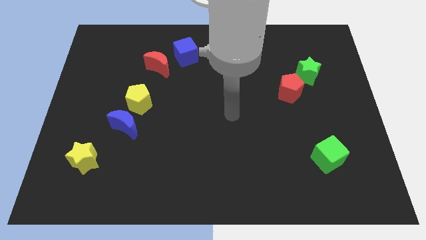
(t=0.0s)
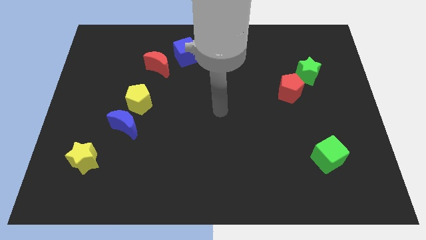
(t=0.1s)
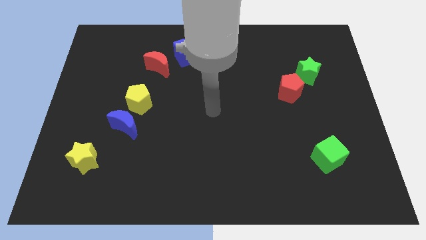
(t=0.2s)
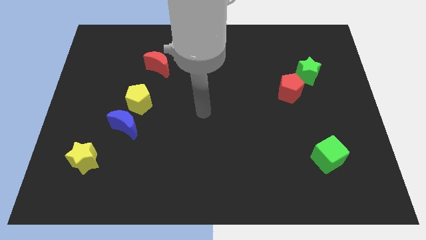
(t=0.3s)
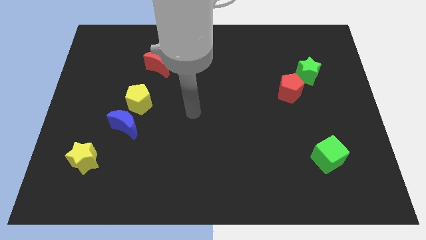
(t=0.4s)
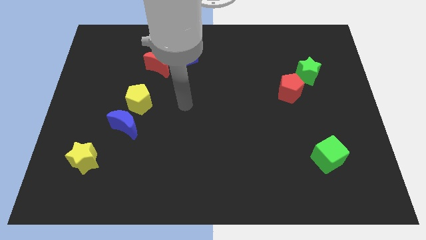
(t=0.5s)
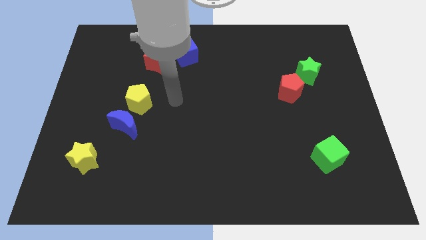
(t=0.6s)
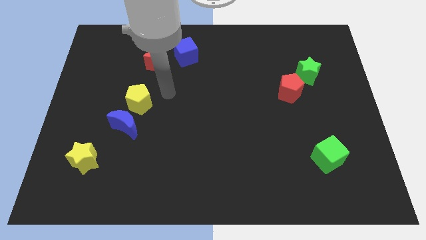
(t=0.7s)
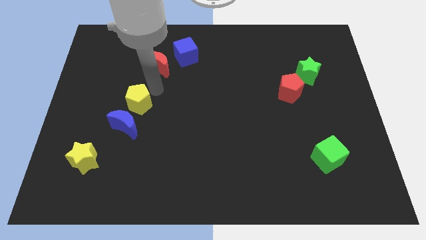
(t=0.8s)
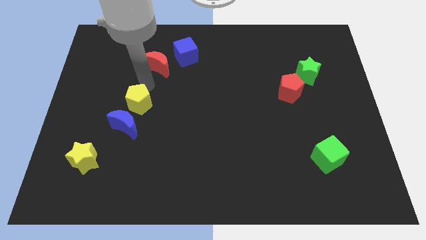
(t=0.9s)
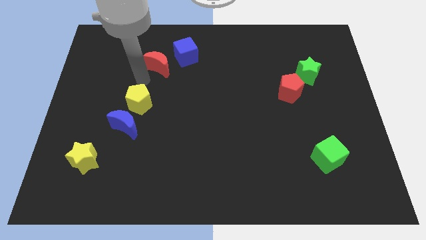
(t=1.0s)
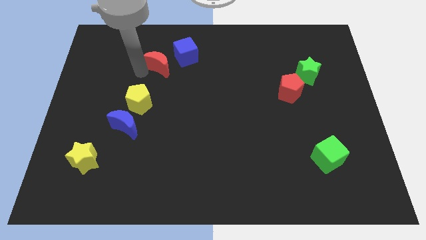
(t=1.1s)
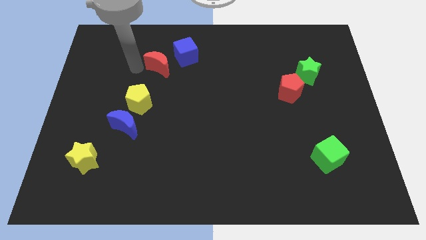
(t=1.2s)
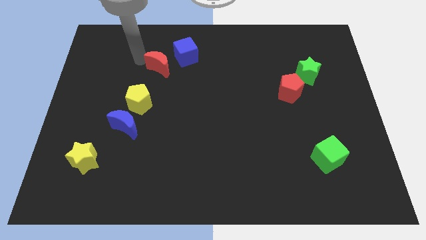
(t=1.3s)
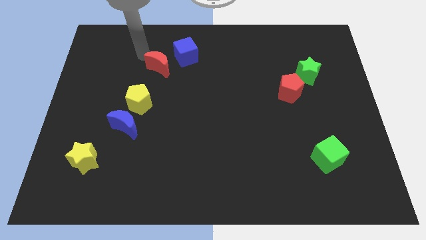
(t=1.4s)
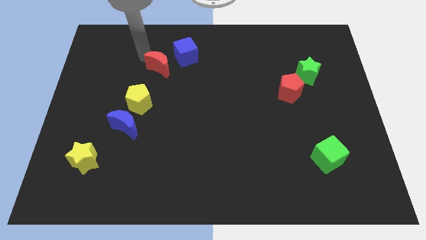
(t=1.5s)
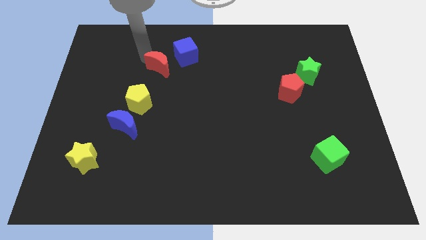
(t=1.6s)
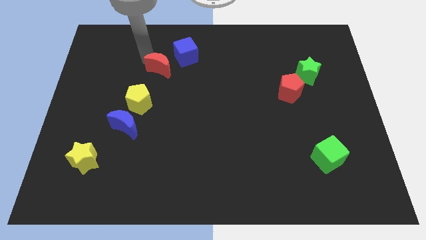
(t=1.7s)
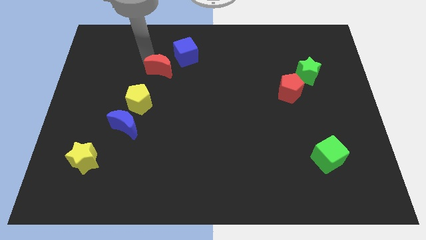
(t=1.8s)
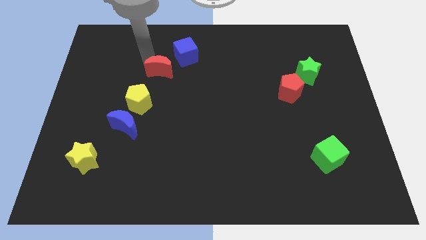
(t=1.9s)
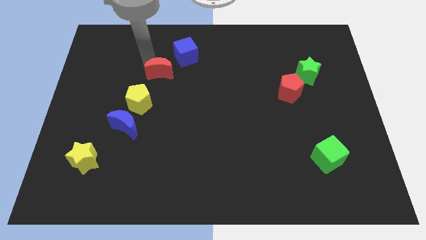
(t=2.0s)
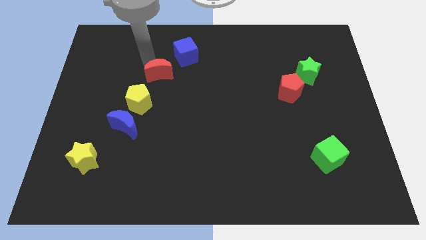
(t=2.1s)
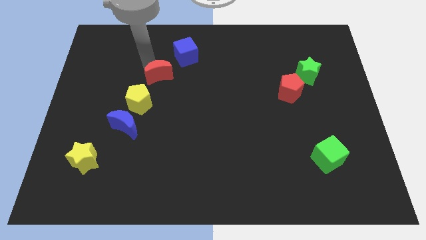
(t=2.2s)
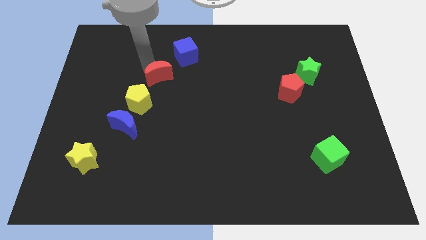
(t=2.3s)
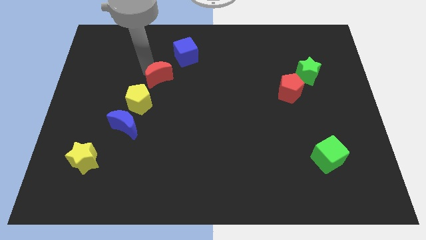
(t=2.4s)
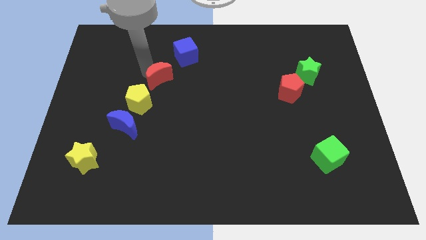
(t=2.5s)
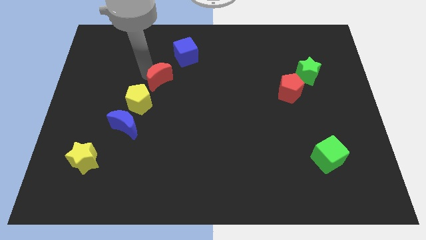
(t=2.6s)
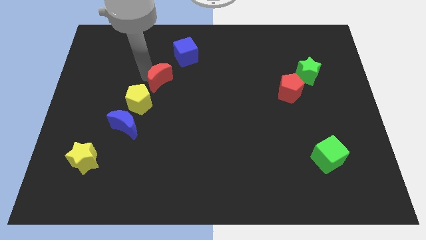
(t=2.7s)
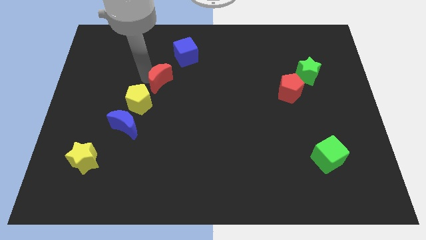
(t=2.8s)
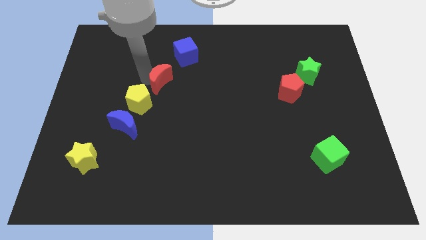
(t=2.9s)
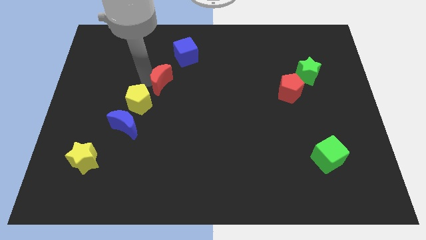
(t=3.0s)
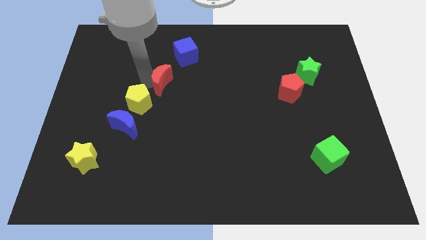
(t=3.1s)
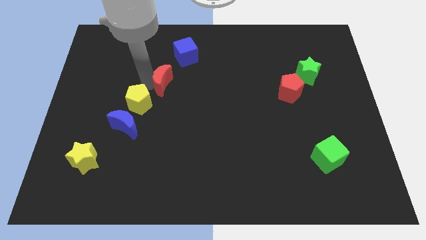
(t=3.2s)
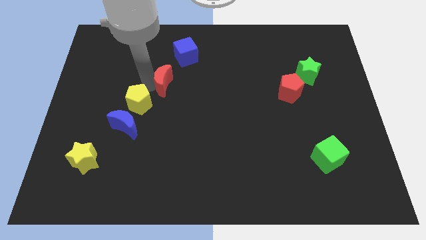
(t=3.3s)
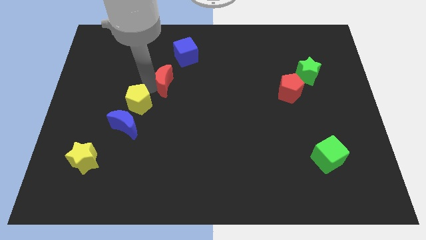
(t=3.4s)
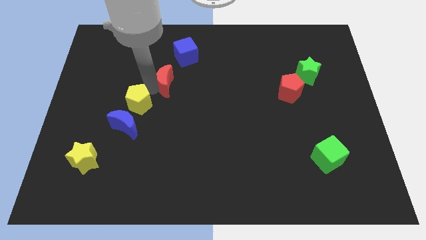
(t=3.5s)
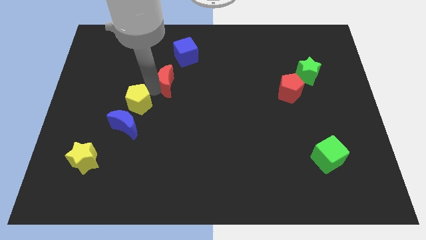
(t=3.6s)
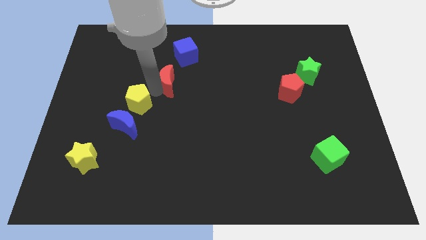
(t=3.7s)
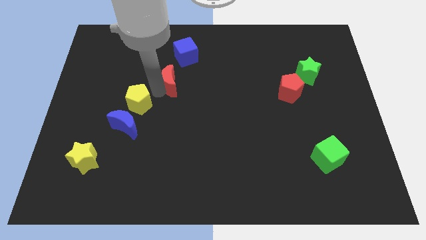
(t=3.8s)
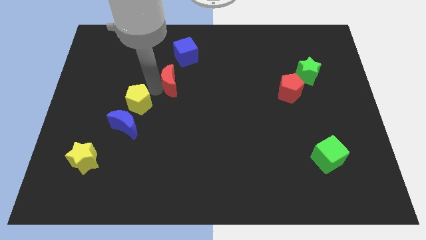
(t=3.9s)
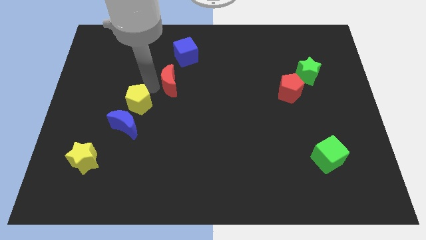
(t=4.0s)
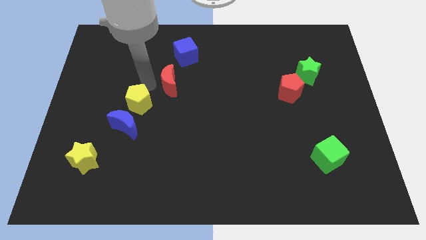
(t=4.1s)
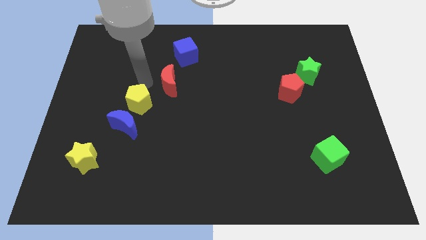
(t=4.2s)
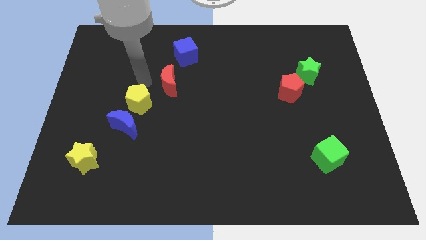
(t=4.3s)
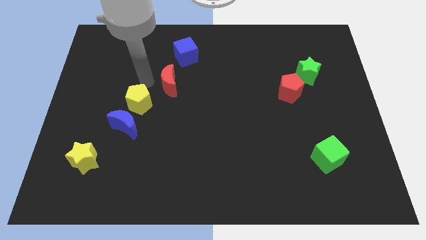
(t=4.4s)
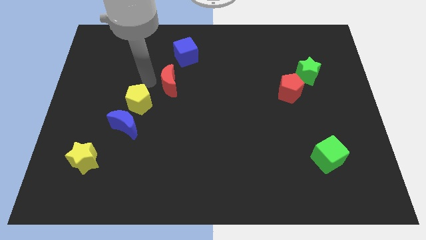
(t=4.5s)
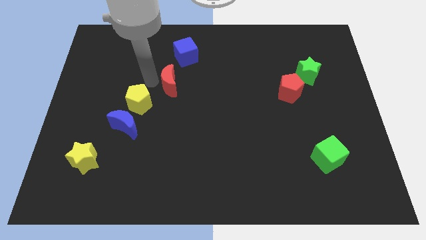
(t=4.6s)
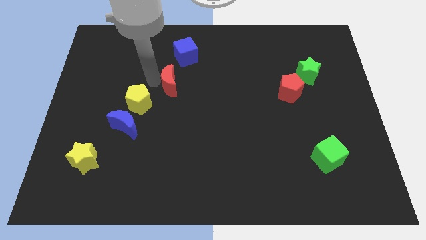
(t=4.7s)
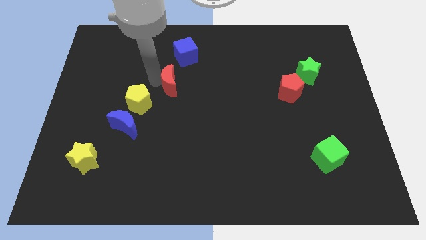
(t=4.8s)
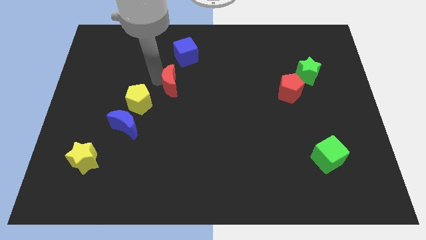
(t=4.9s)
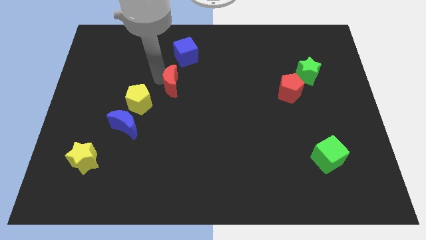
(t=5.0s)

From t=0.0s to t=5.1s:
slightly move the red moon downwards and then right

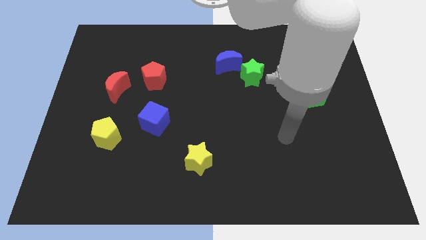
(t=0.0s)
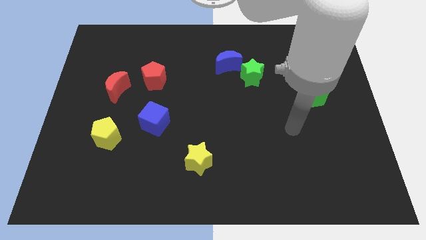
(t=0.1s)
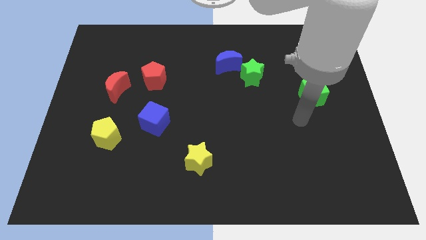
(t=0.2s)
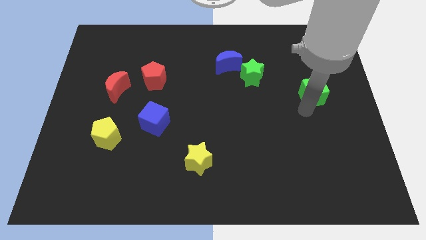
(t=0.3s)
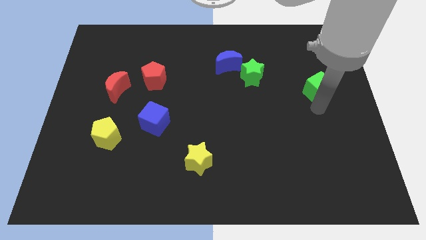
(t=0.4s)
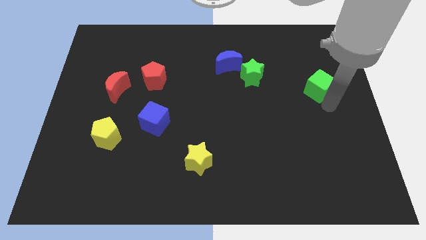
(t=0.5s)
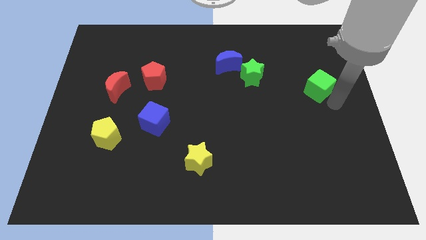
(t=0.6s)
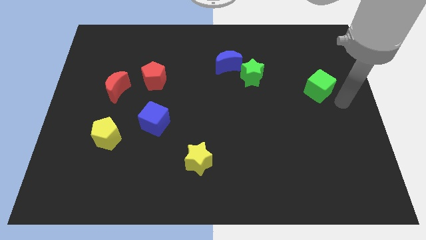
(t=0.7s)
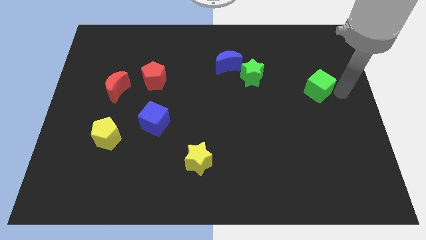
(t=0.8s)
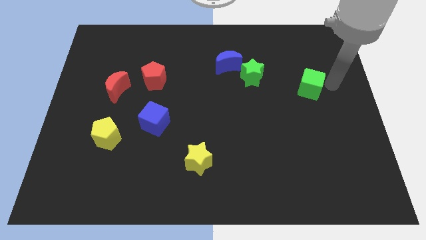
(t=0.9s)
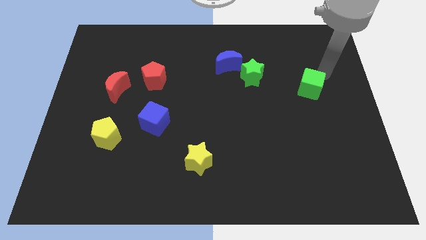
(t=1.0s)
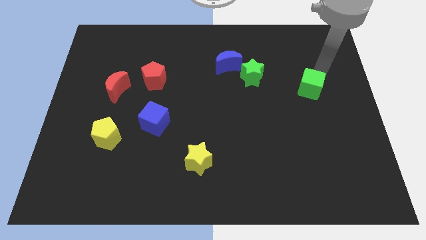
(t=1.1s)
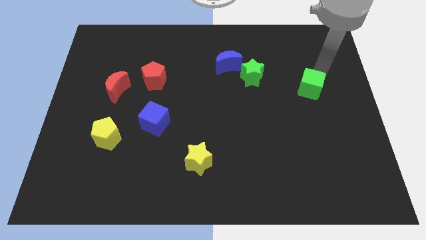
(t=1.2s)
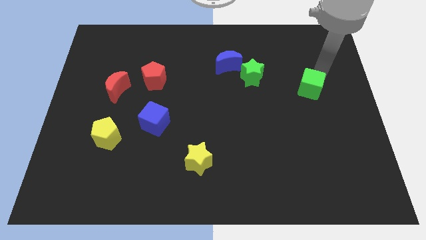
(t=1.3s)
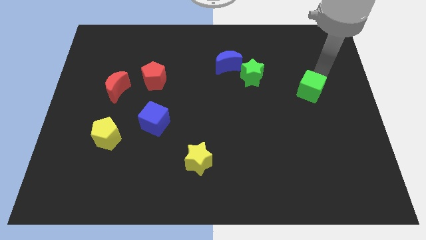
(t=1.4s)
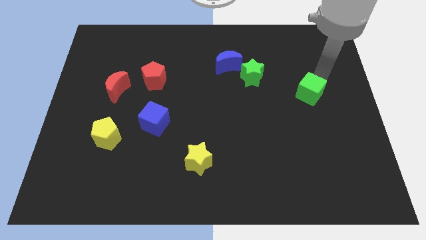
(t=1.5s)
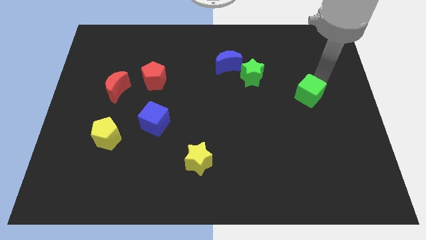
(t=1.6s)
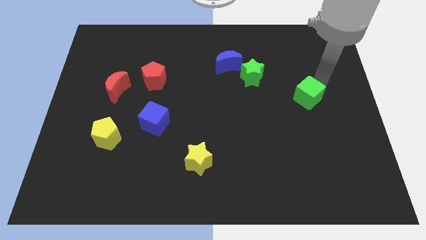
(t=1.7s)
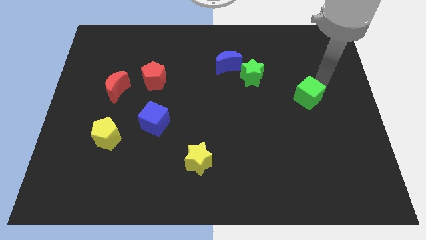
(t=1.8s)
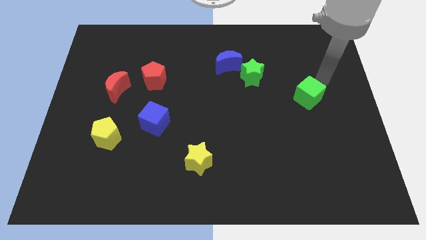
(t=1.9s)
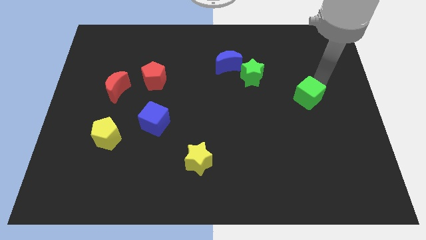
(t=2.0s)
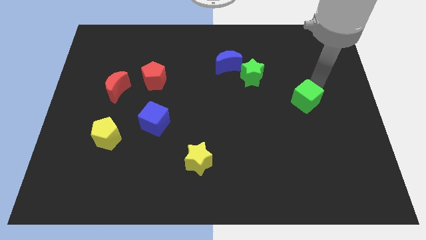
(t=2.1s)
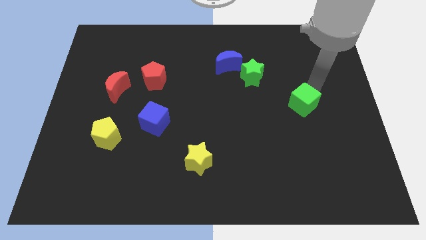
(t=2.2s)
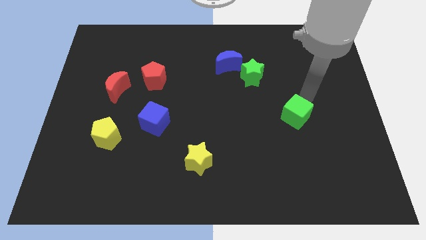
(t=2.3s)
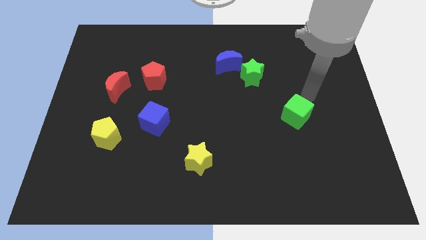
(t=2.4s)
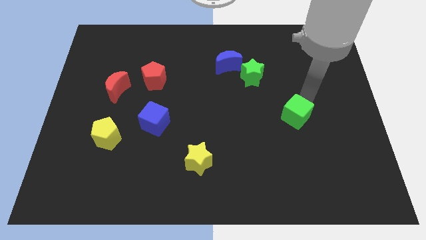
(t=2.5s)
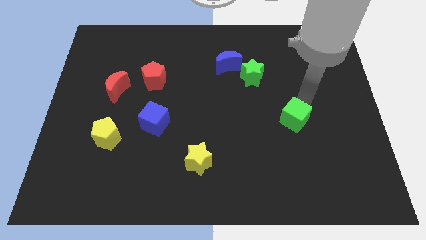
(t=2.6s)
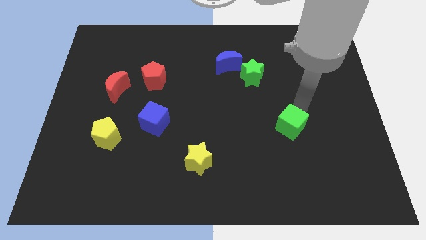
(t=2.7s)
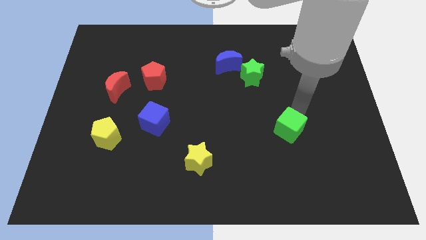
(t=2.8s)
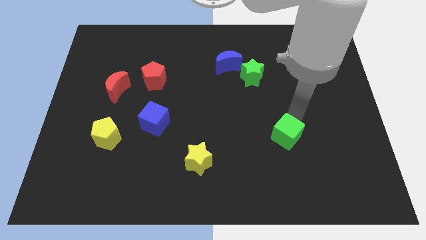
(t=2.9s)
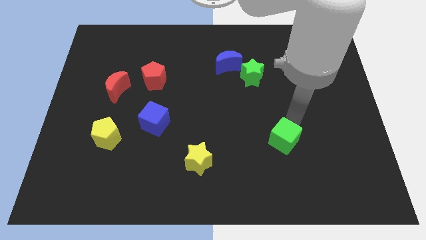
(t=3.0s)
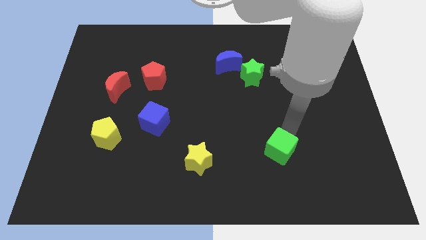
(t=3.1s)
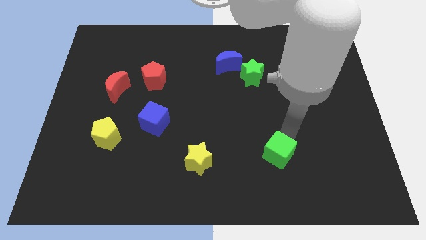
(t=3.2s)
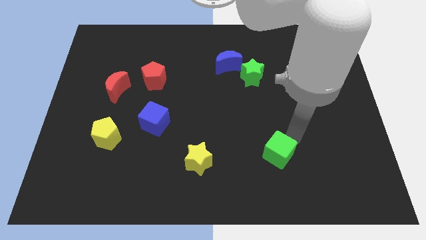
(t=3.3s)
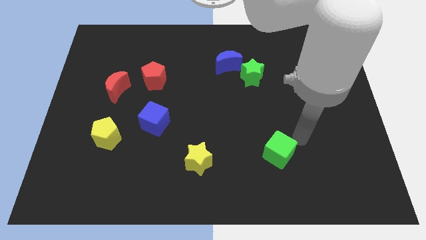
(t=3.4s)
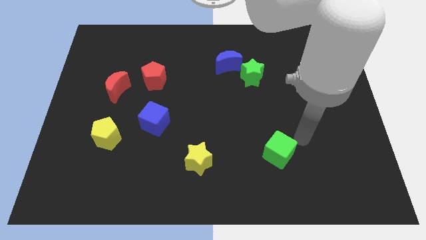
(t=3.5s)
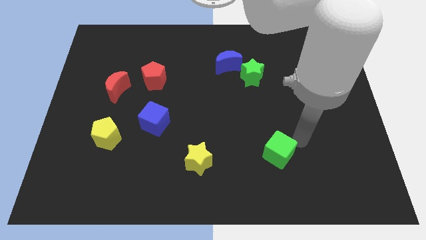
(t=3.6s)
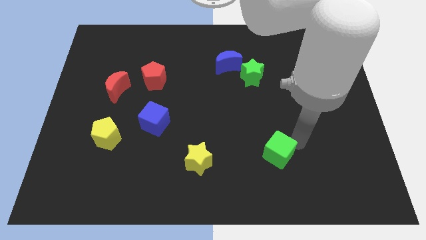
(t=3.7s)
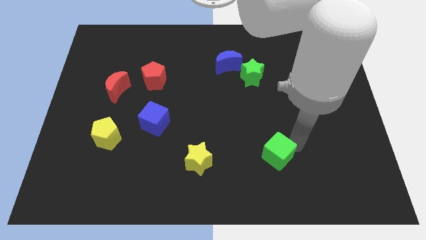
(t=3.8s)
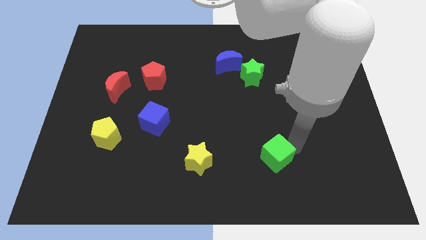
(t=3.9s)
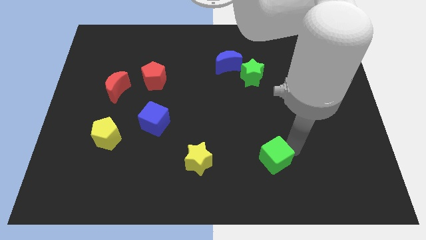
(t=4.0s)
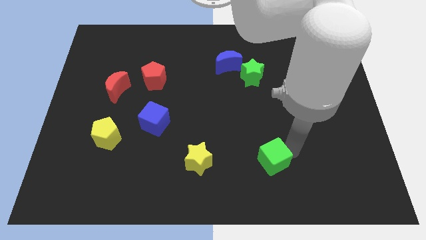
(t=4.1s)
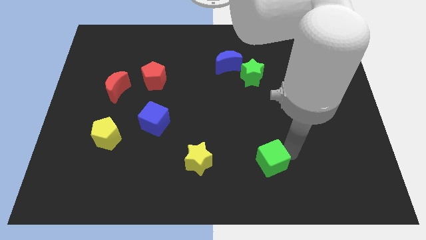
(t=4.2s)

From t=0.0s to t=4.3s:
slide the green cube downwards and left diagonally
